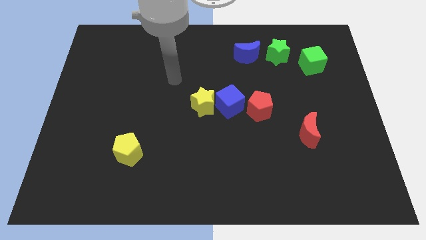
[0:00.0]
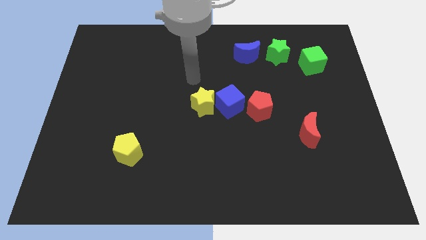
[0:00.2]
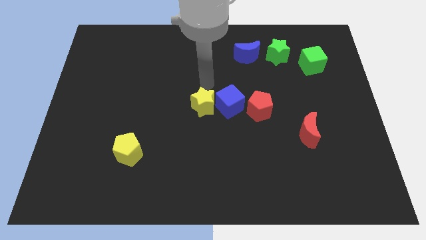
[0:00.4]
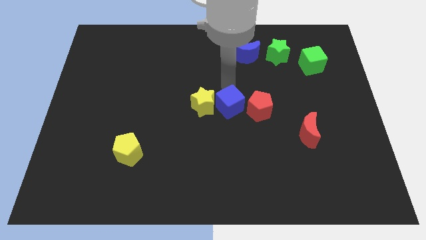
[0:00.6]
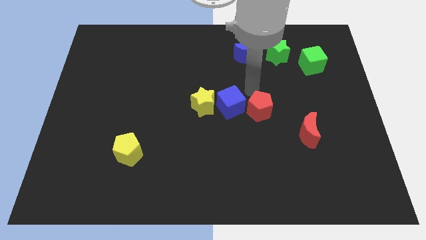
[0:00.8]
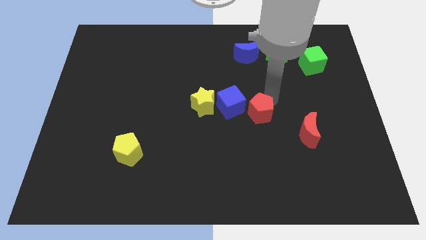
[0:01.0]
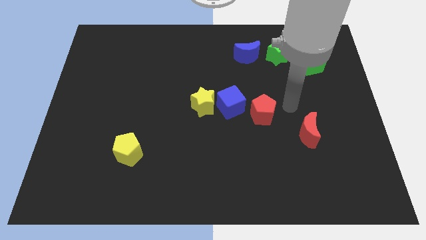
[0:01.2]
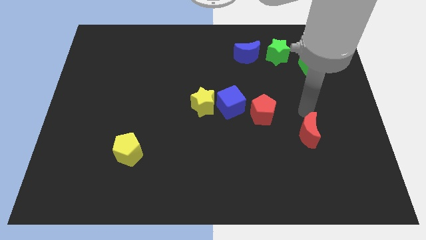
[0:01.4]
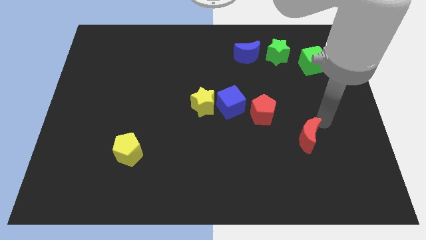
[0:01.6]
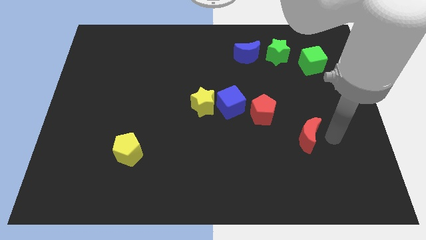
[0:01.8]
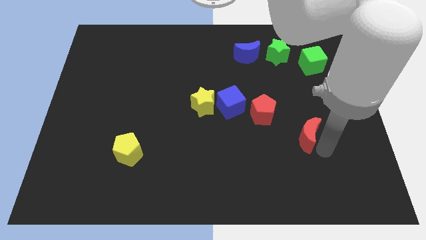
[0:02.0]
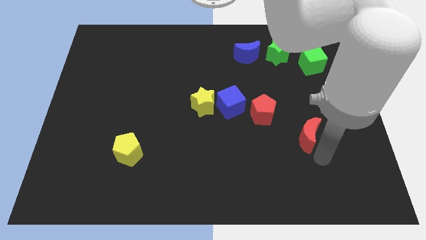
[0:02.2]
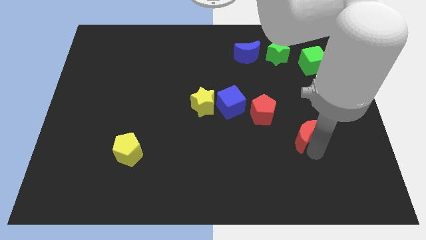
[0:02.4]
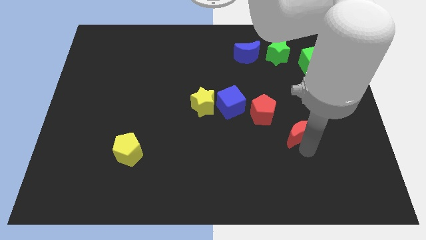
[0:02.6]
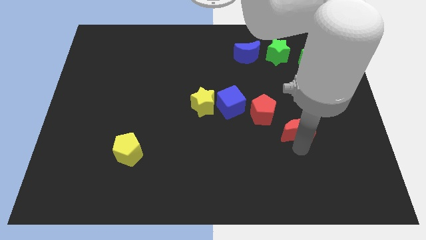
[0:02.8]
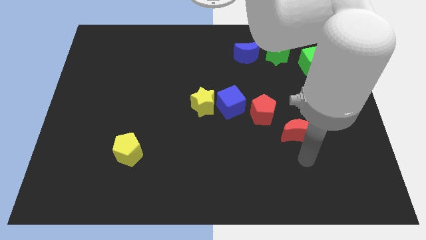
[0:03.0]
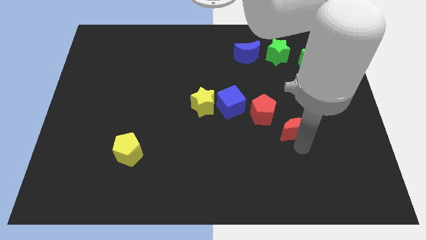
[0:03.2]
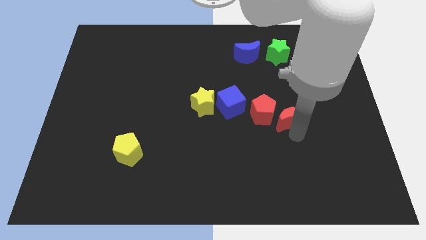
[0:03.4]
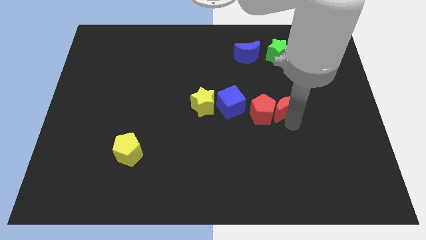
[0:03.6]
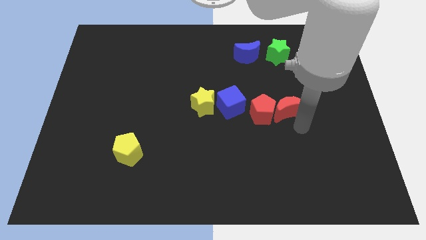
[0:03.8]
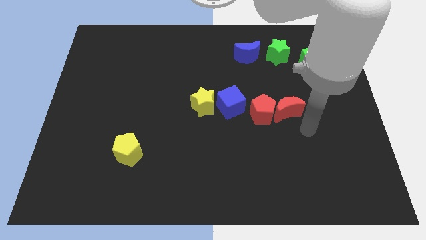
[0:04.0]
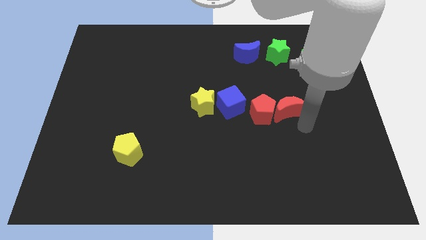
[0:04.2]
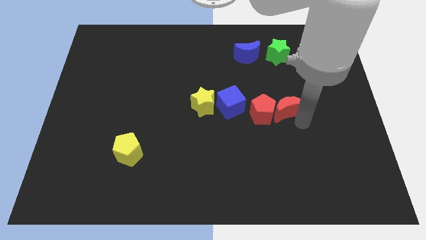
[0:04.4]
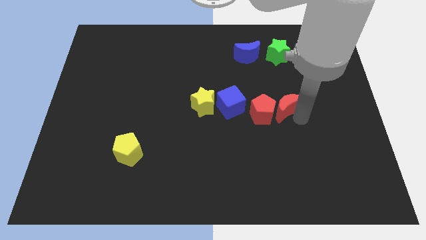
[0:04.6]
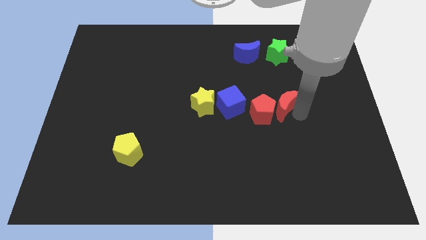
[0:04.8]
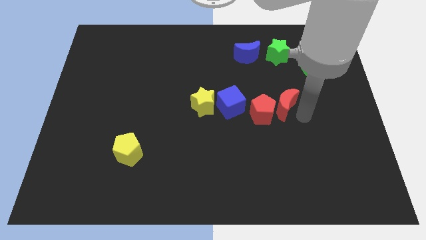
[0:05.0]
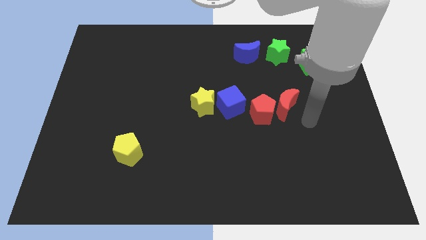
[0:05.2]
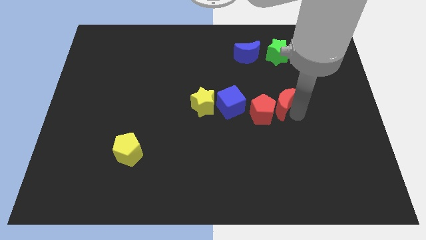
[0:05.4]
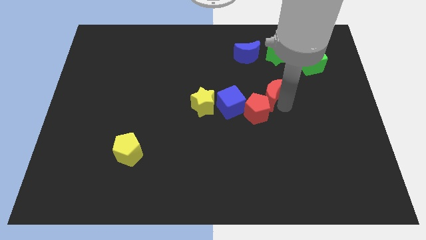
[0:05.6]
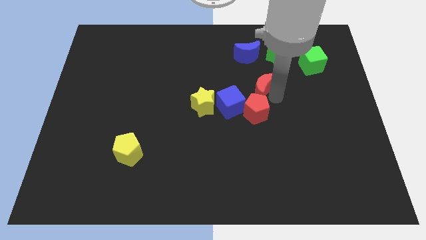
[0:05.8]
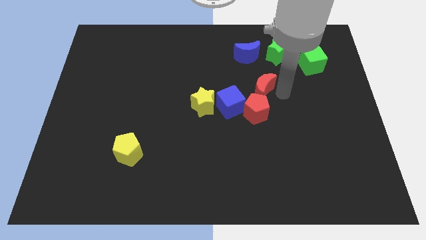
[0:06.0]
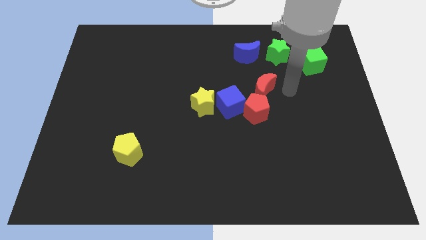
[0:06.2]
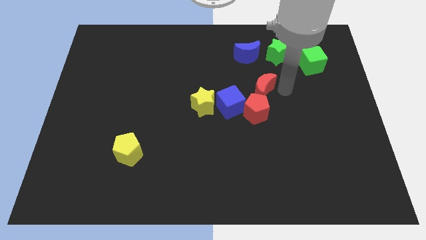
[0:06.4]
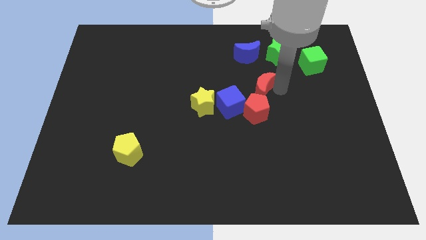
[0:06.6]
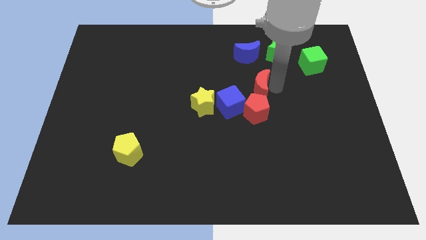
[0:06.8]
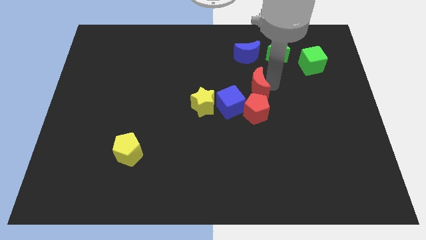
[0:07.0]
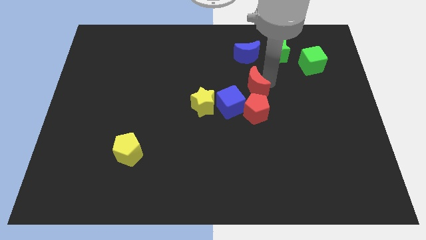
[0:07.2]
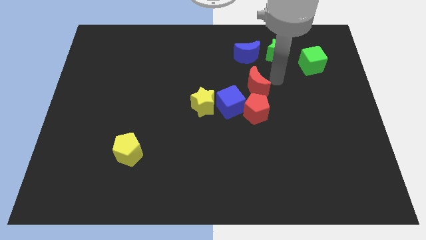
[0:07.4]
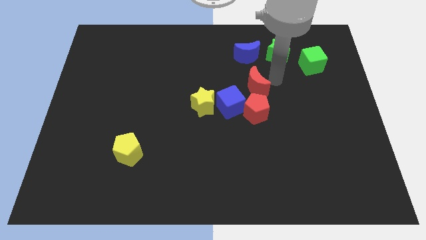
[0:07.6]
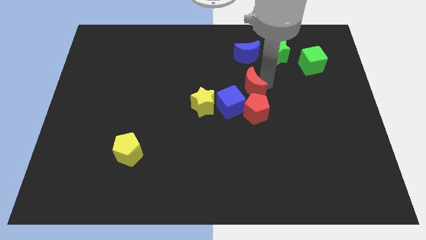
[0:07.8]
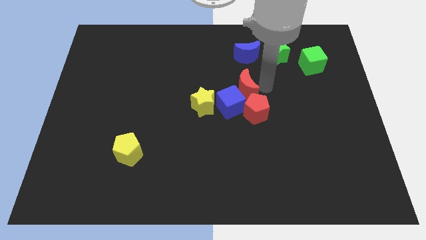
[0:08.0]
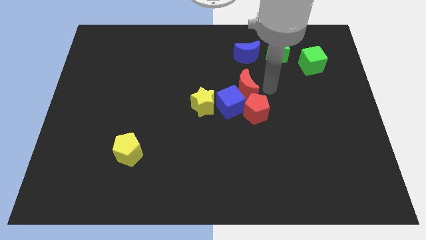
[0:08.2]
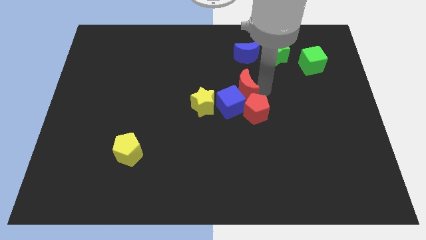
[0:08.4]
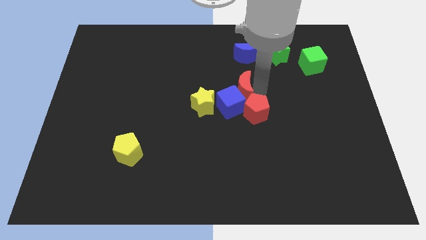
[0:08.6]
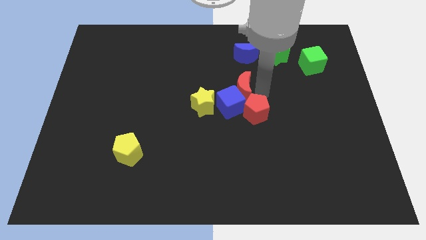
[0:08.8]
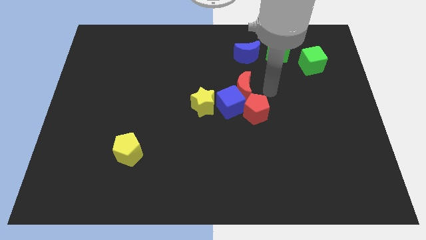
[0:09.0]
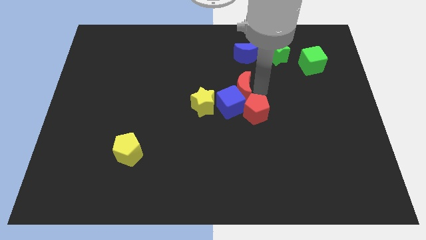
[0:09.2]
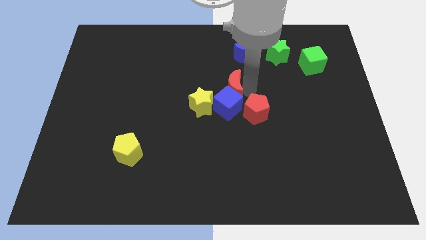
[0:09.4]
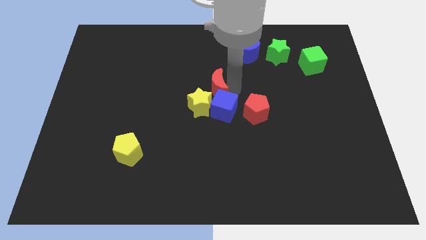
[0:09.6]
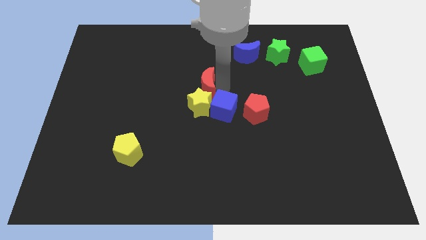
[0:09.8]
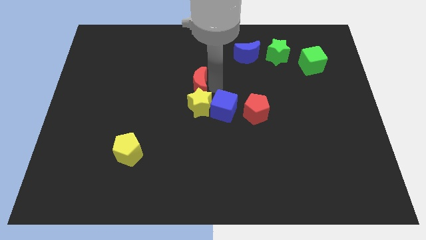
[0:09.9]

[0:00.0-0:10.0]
push the red moon to the top left of the yellow star

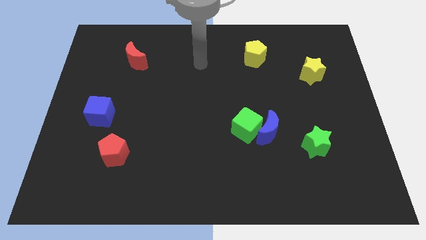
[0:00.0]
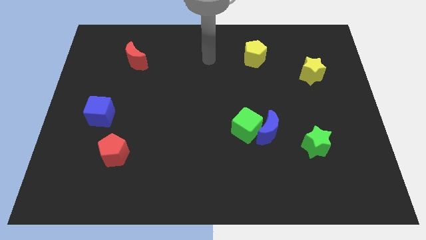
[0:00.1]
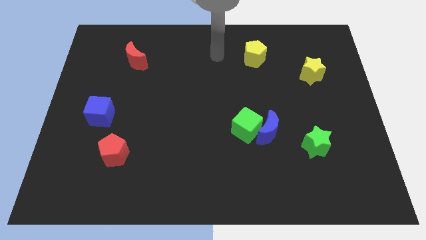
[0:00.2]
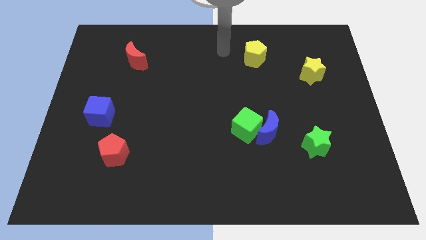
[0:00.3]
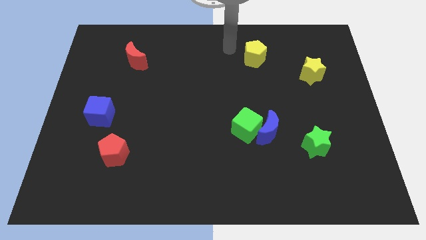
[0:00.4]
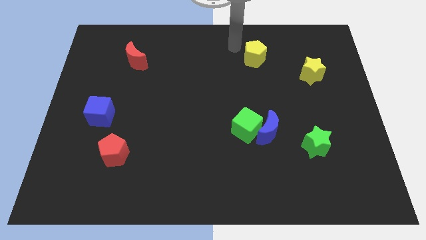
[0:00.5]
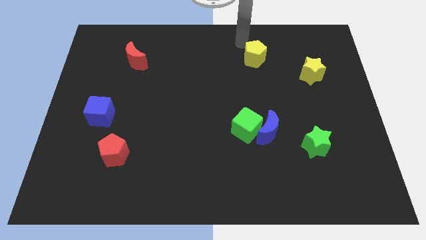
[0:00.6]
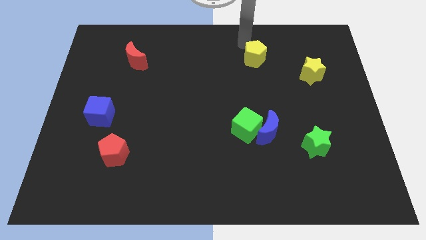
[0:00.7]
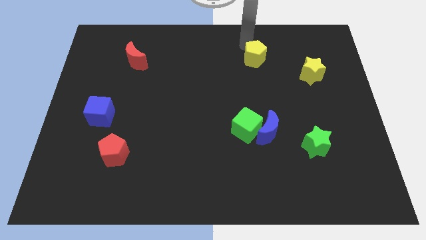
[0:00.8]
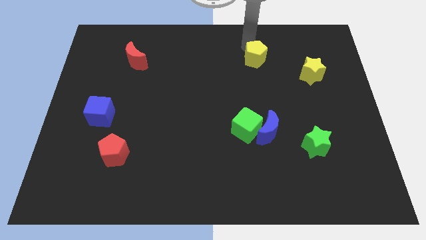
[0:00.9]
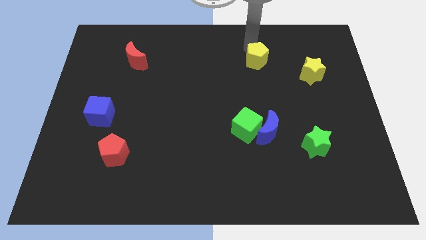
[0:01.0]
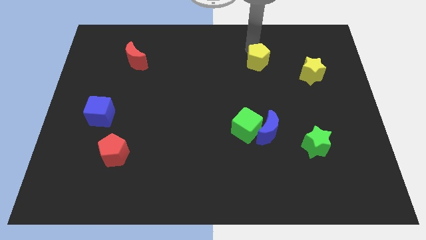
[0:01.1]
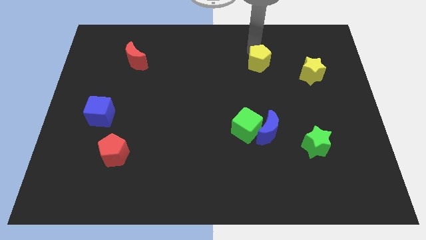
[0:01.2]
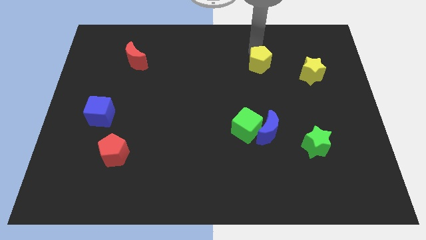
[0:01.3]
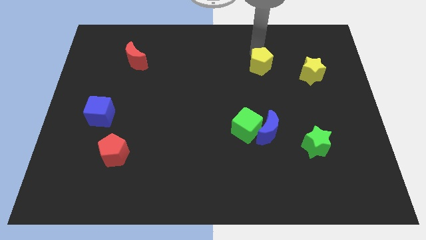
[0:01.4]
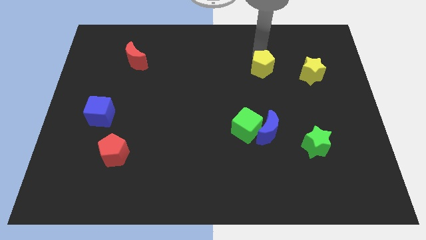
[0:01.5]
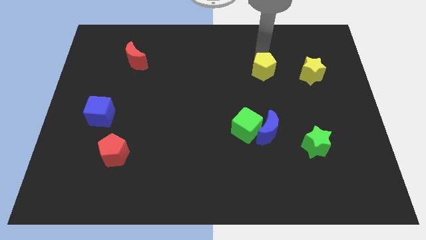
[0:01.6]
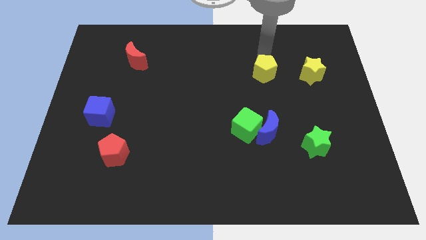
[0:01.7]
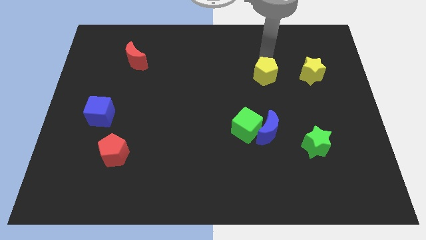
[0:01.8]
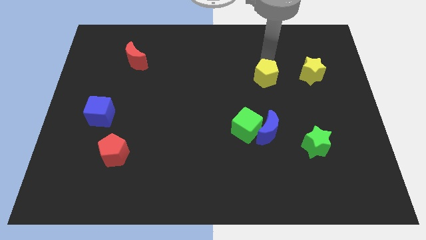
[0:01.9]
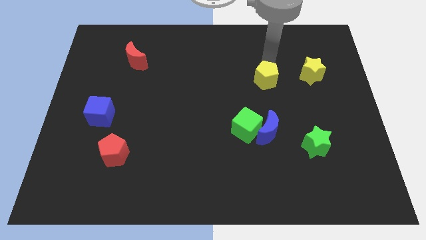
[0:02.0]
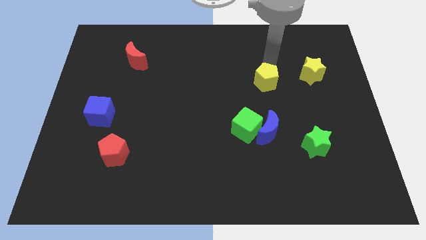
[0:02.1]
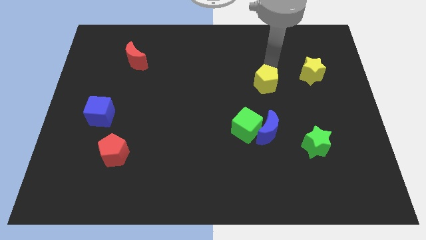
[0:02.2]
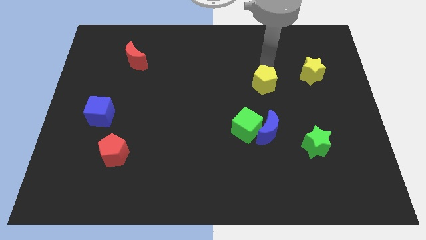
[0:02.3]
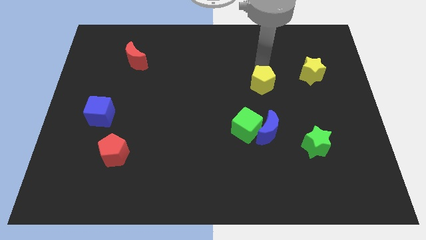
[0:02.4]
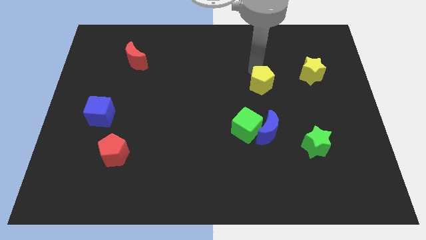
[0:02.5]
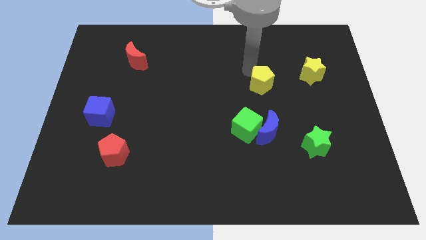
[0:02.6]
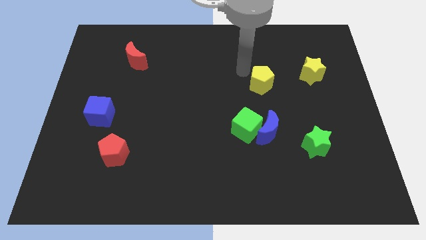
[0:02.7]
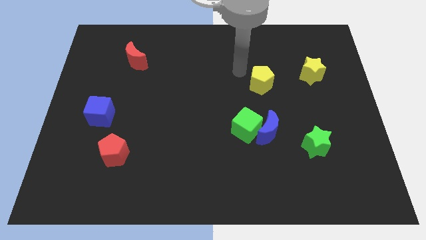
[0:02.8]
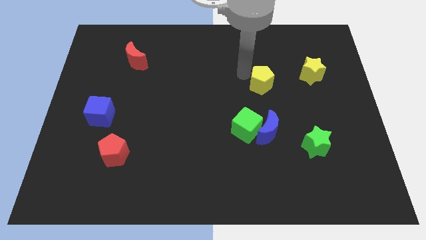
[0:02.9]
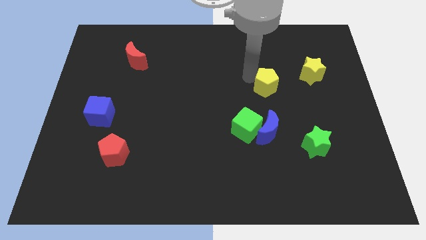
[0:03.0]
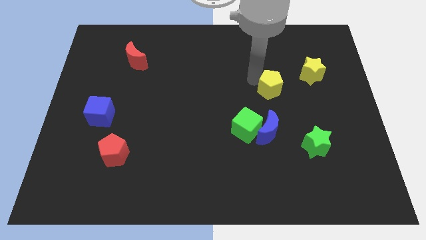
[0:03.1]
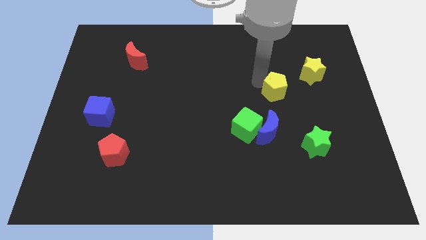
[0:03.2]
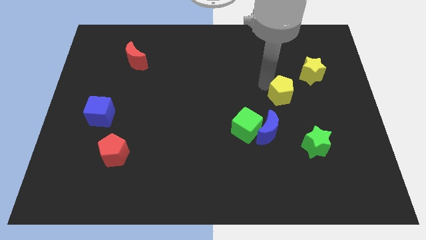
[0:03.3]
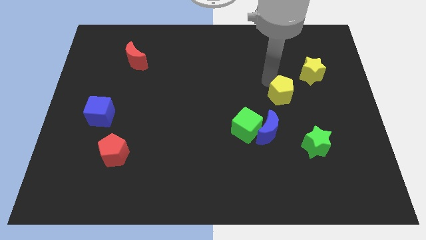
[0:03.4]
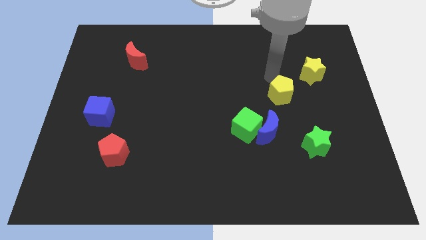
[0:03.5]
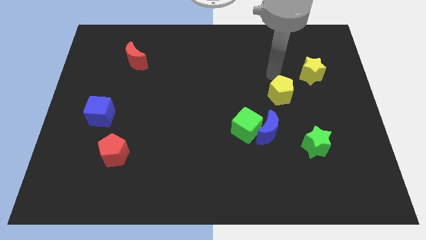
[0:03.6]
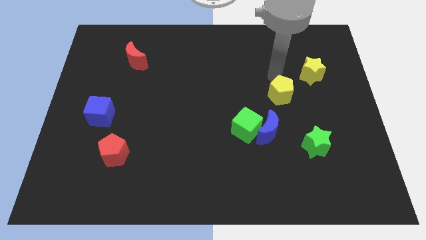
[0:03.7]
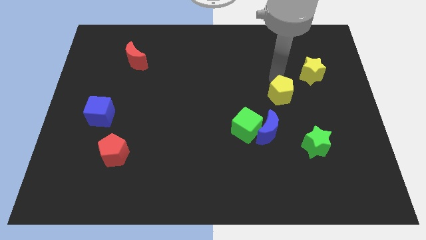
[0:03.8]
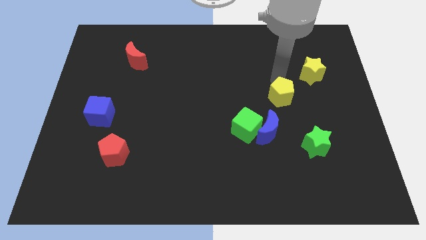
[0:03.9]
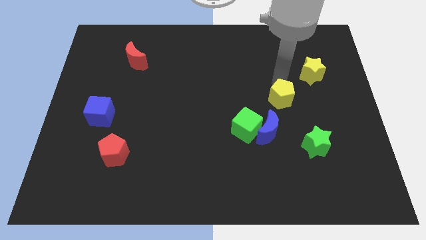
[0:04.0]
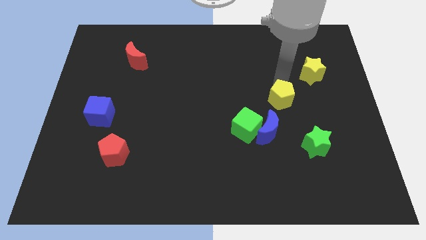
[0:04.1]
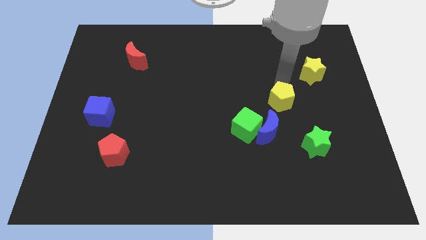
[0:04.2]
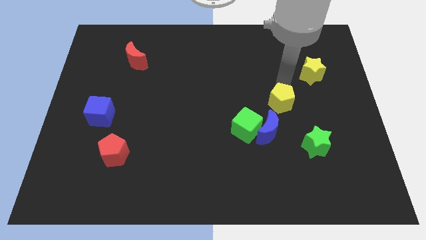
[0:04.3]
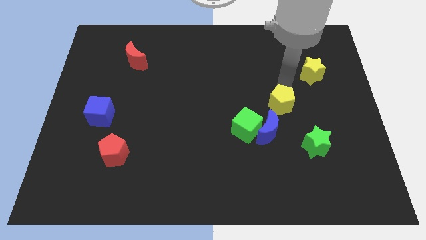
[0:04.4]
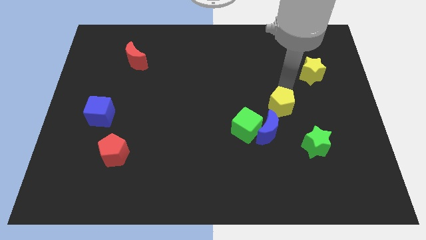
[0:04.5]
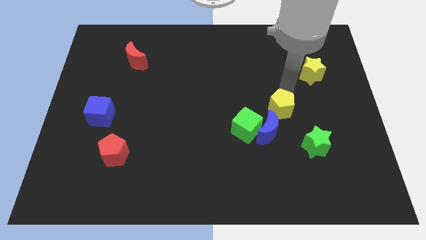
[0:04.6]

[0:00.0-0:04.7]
put the yellow pentagon to the top left side of the green star
